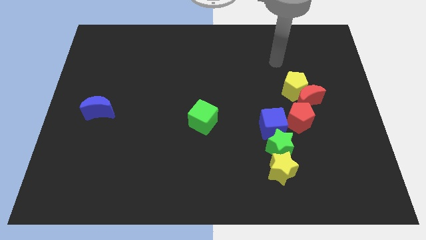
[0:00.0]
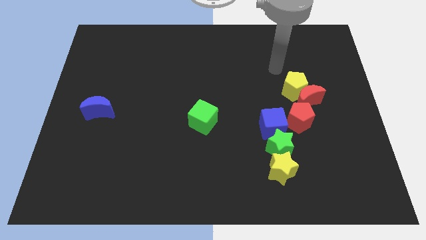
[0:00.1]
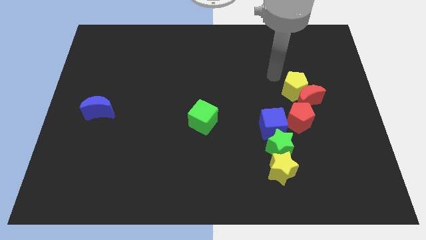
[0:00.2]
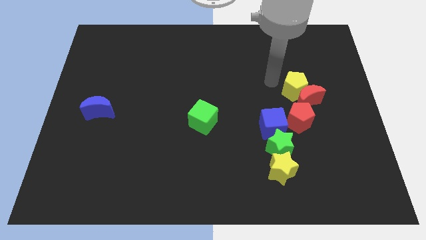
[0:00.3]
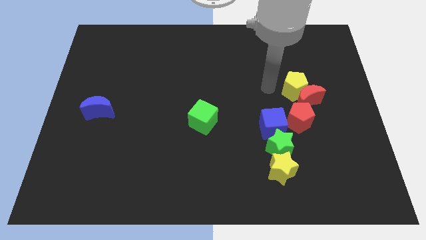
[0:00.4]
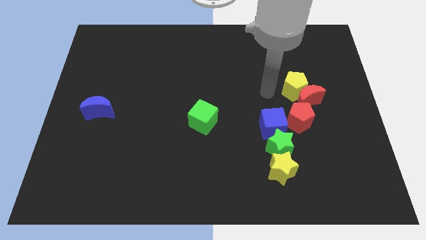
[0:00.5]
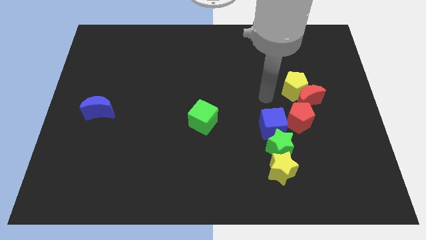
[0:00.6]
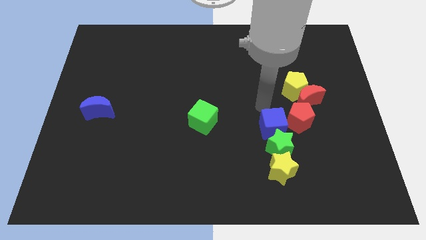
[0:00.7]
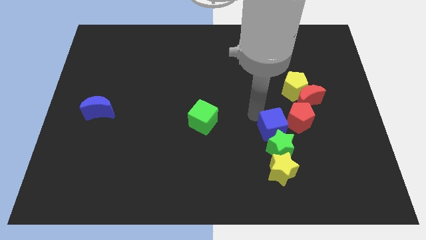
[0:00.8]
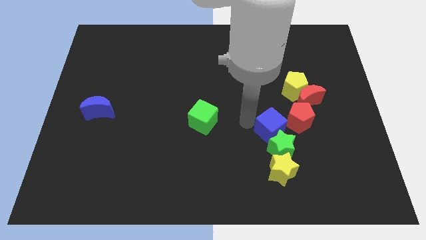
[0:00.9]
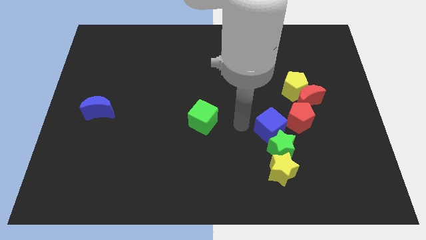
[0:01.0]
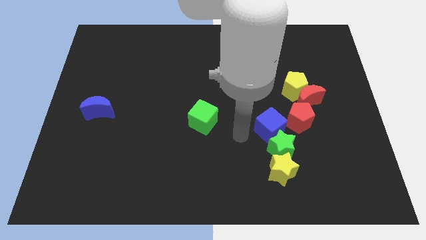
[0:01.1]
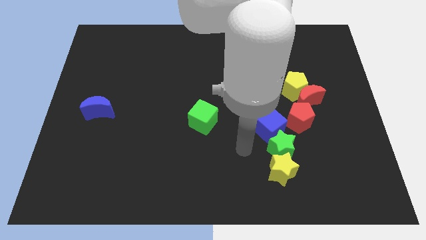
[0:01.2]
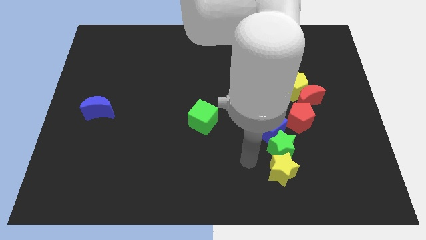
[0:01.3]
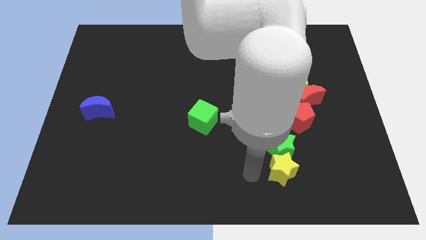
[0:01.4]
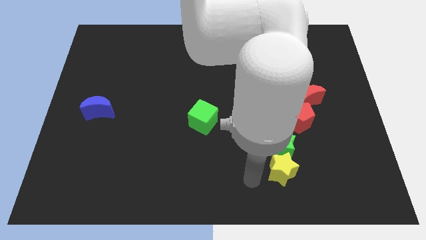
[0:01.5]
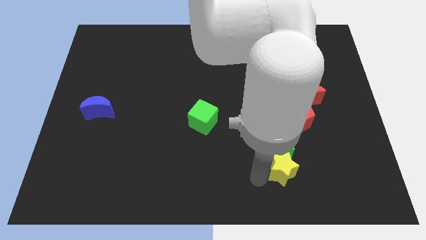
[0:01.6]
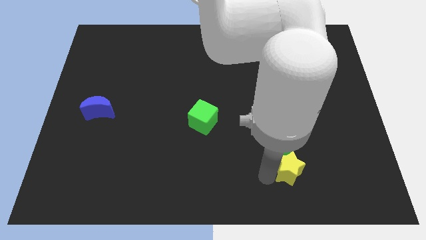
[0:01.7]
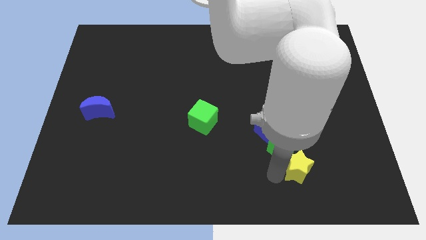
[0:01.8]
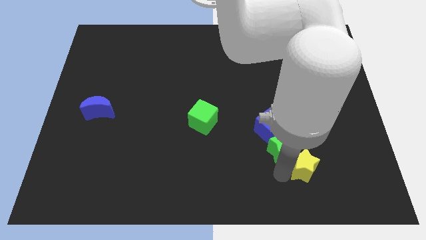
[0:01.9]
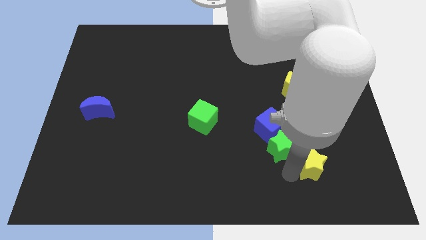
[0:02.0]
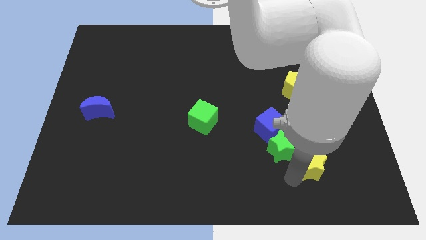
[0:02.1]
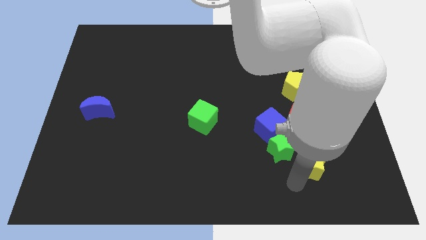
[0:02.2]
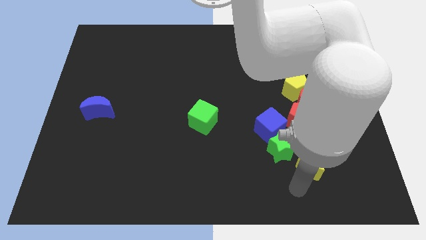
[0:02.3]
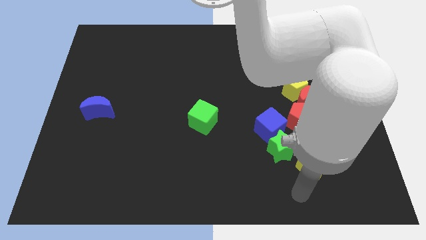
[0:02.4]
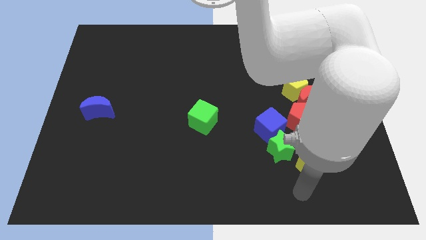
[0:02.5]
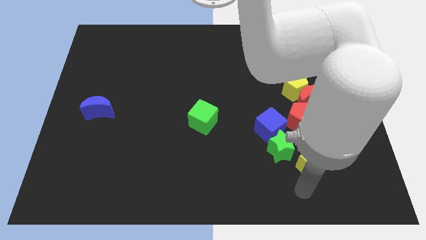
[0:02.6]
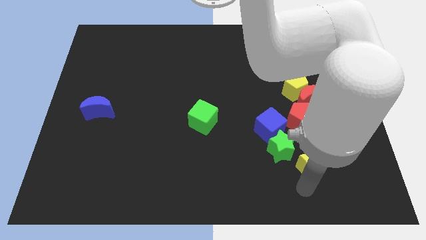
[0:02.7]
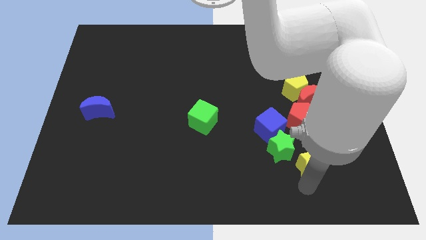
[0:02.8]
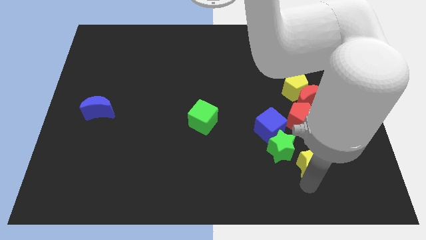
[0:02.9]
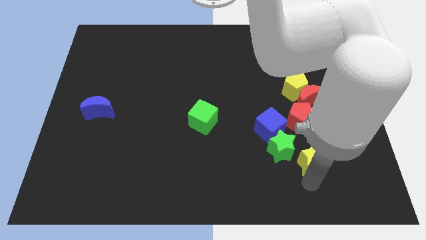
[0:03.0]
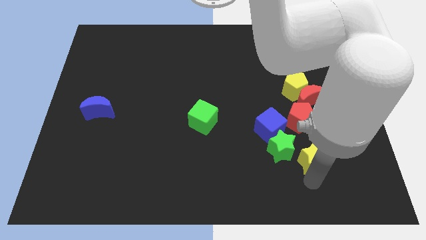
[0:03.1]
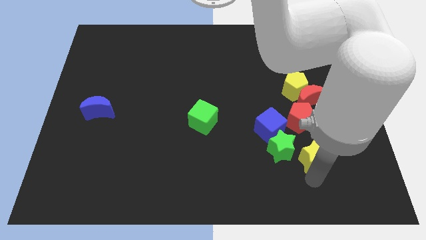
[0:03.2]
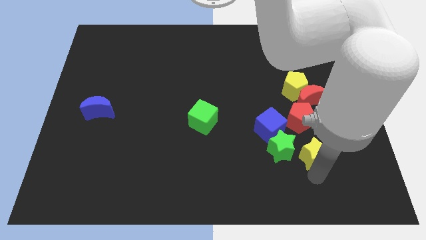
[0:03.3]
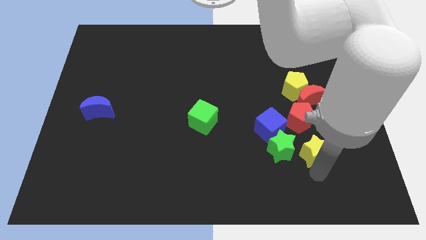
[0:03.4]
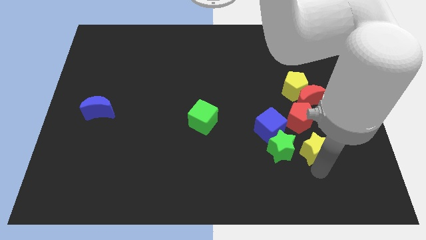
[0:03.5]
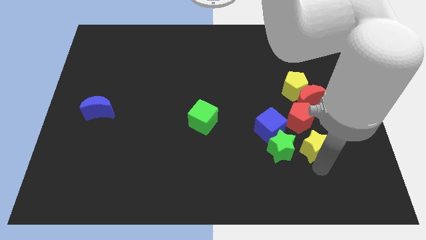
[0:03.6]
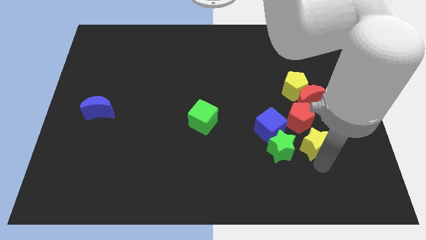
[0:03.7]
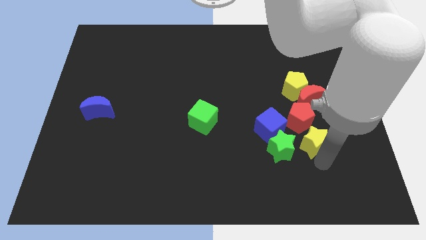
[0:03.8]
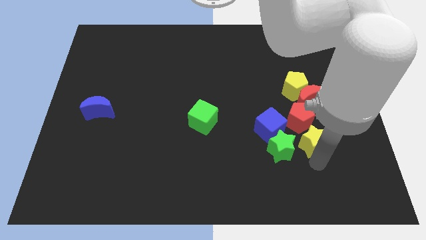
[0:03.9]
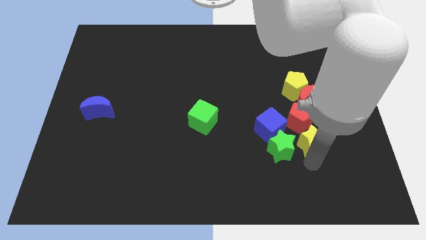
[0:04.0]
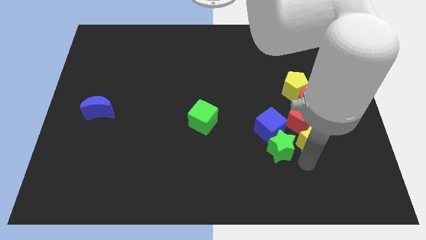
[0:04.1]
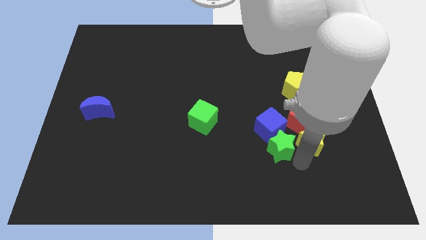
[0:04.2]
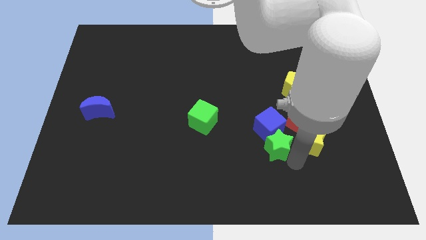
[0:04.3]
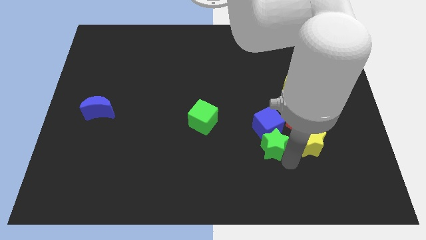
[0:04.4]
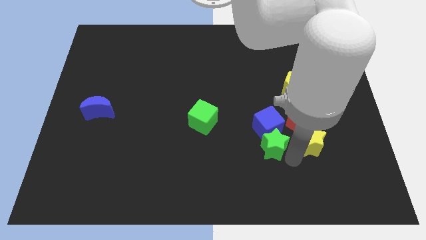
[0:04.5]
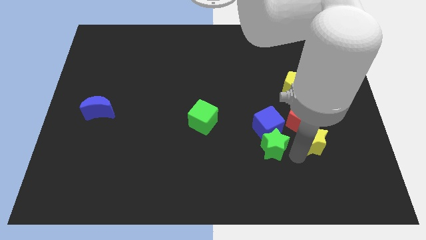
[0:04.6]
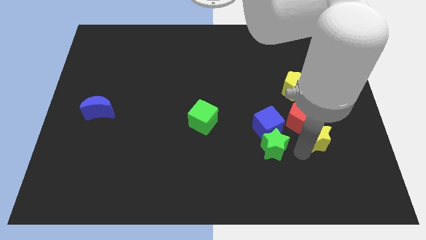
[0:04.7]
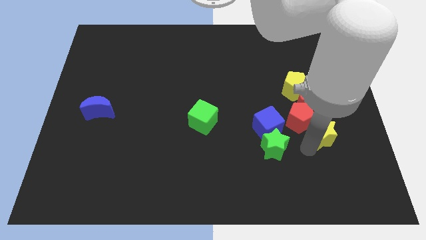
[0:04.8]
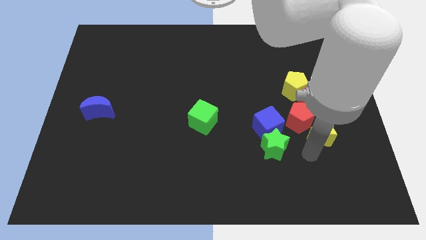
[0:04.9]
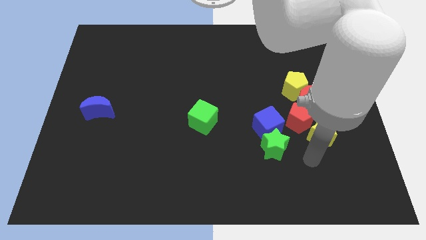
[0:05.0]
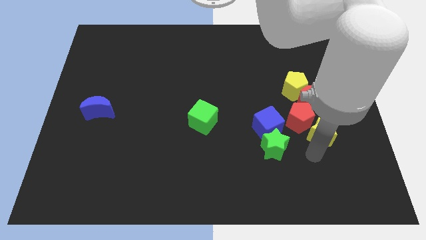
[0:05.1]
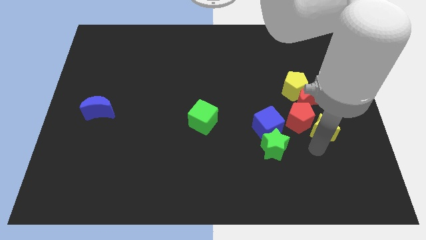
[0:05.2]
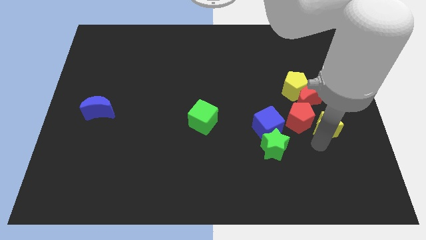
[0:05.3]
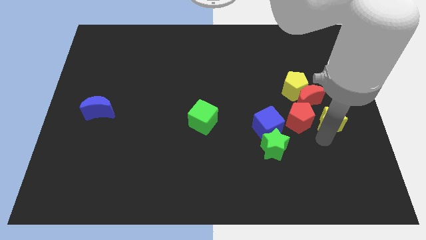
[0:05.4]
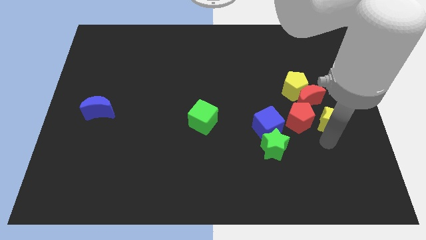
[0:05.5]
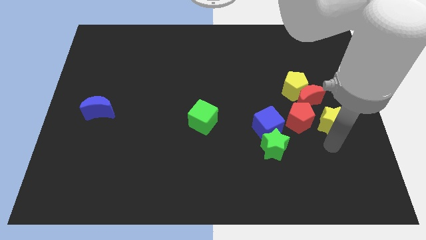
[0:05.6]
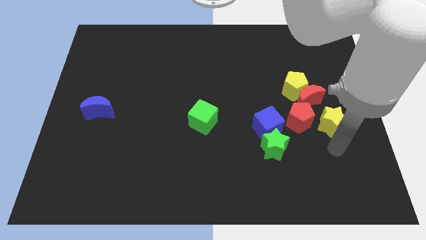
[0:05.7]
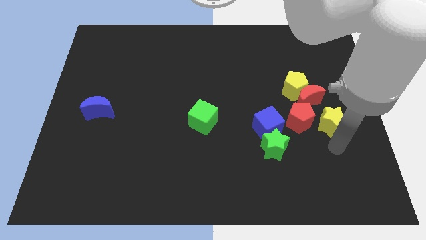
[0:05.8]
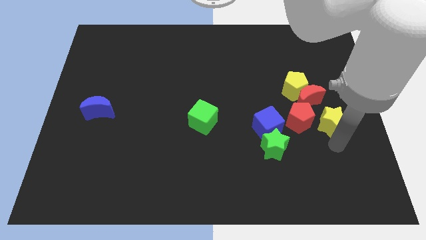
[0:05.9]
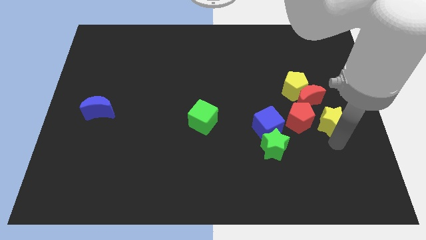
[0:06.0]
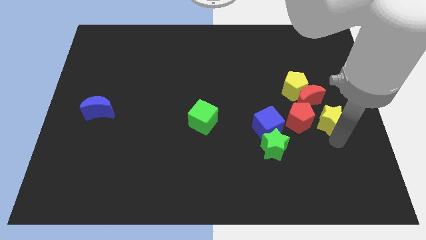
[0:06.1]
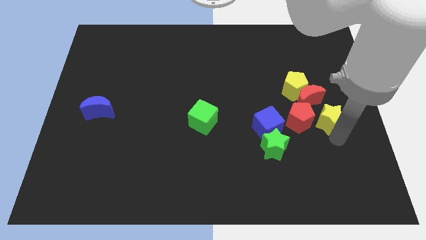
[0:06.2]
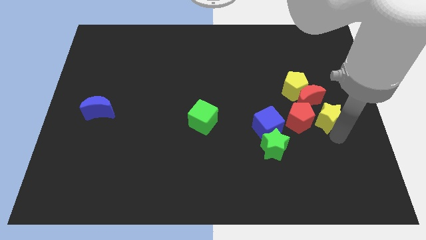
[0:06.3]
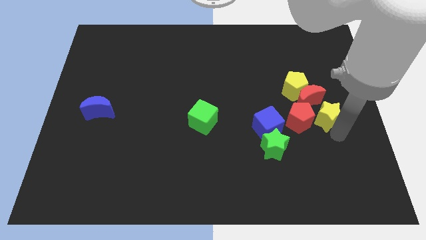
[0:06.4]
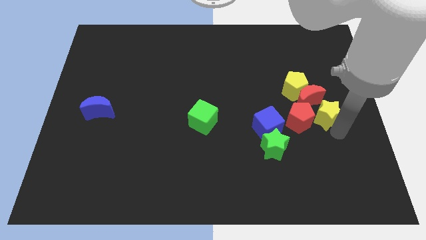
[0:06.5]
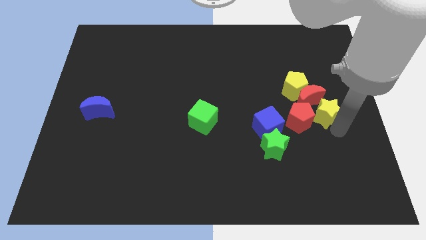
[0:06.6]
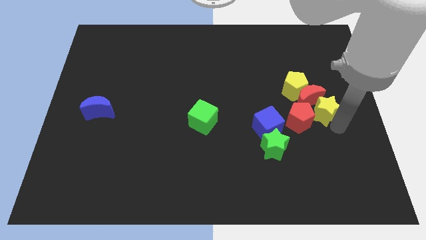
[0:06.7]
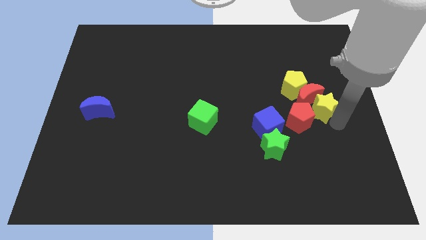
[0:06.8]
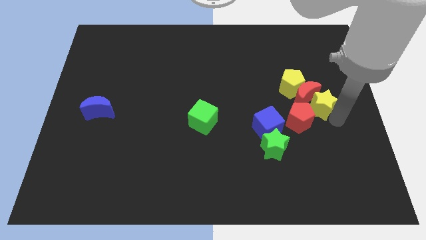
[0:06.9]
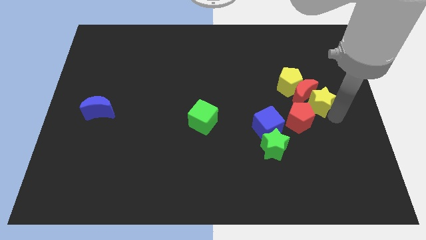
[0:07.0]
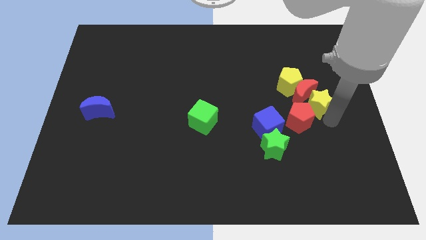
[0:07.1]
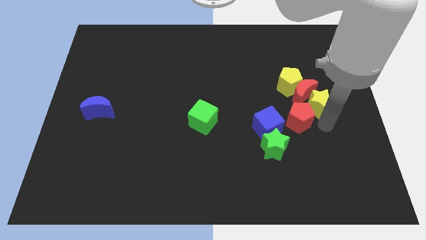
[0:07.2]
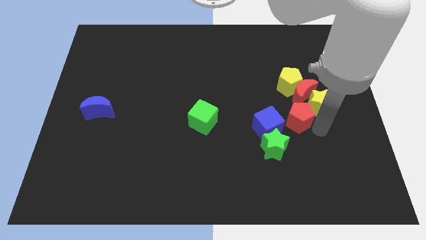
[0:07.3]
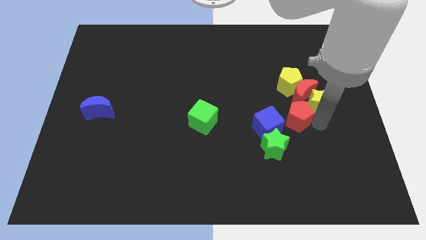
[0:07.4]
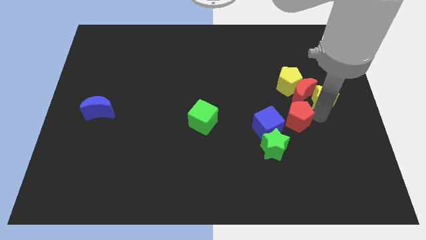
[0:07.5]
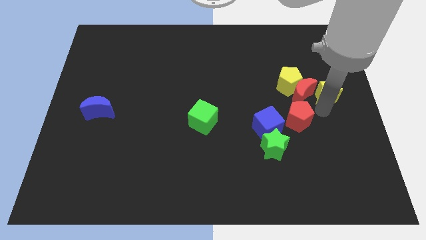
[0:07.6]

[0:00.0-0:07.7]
push the yellow star diagonally up and to the right of the red moon
